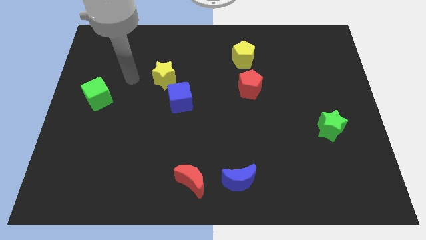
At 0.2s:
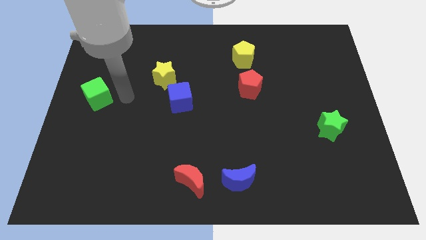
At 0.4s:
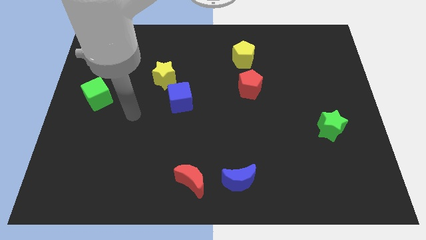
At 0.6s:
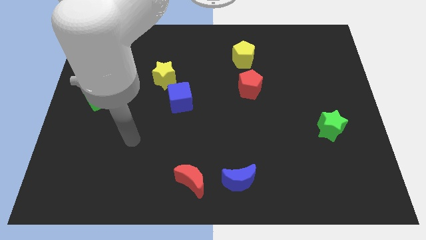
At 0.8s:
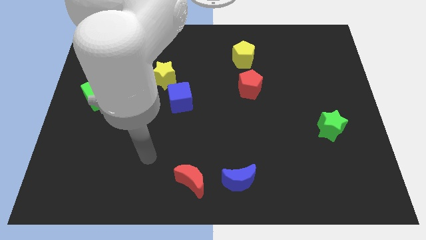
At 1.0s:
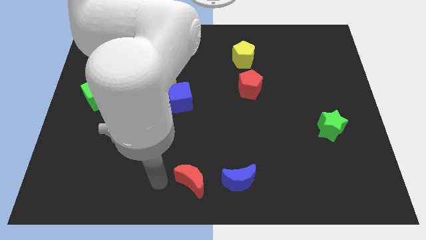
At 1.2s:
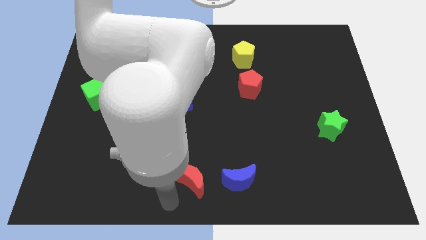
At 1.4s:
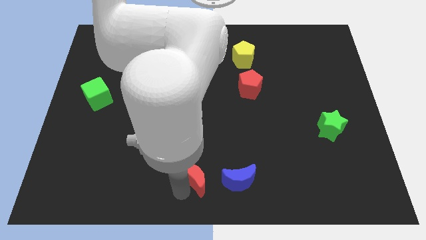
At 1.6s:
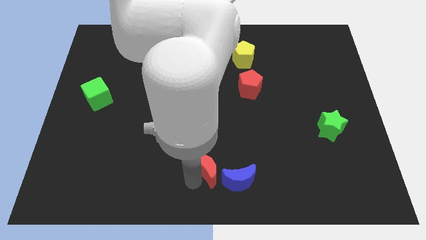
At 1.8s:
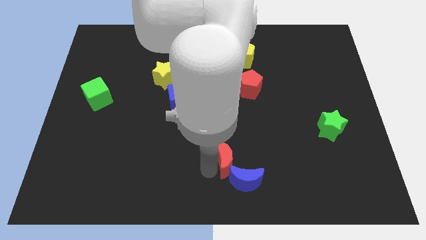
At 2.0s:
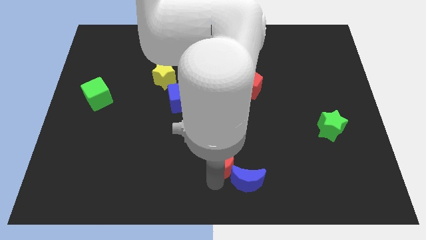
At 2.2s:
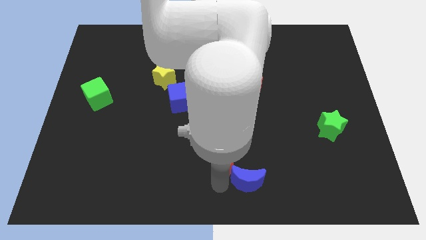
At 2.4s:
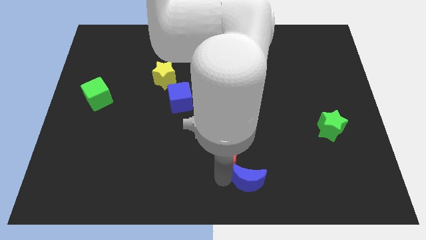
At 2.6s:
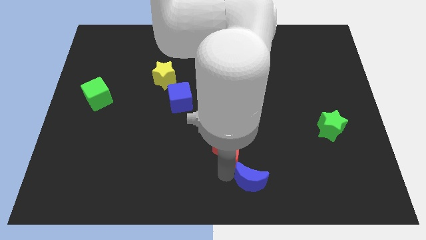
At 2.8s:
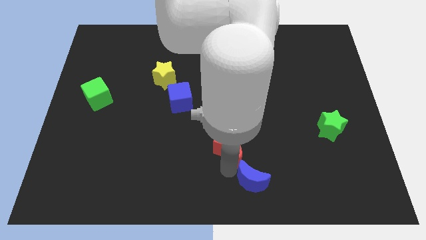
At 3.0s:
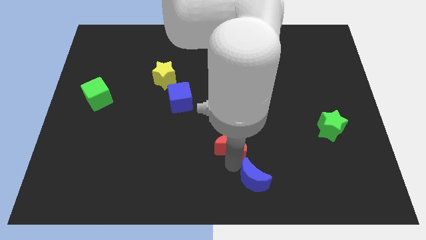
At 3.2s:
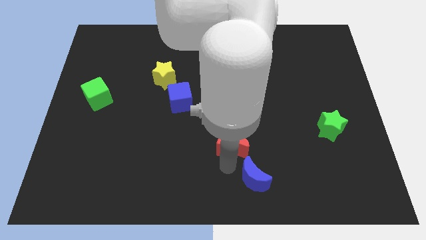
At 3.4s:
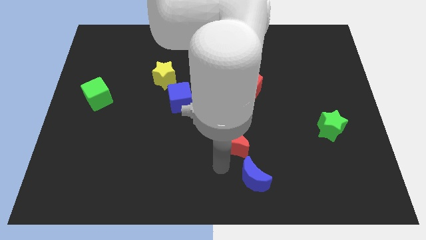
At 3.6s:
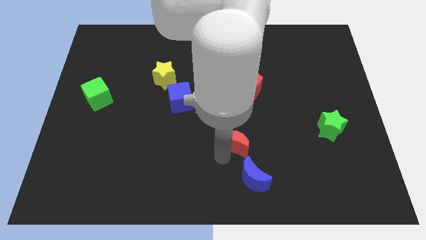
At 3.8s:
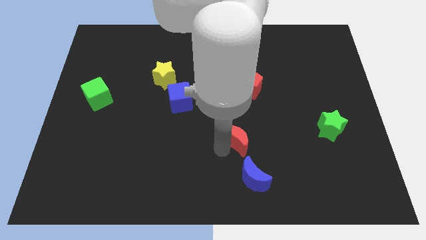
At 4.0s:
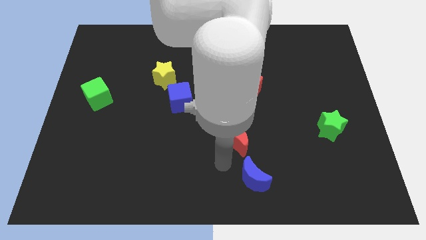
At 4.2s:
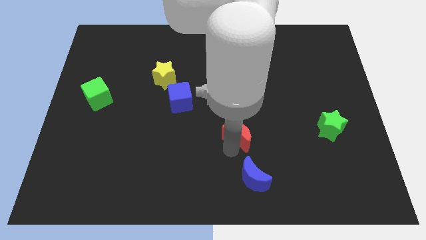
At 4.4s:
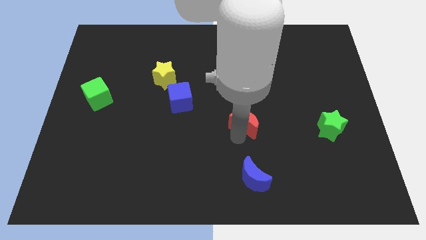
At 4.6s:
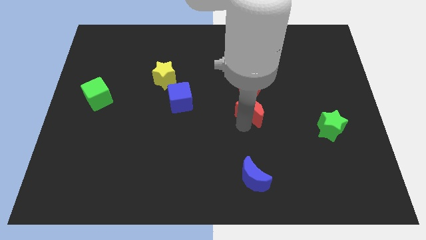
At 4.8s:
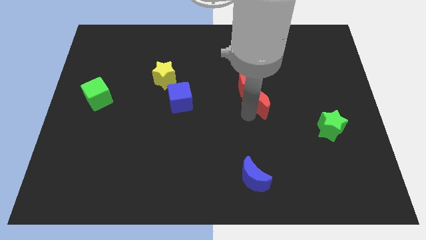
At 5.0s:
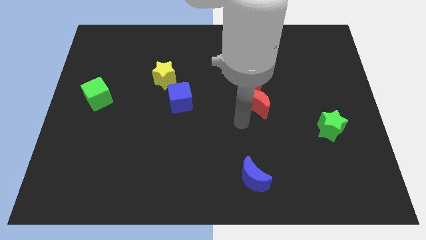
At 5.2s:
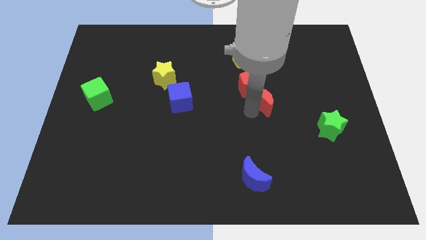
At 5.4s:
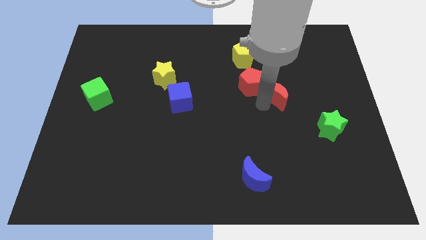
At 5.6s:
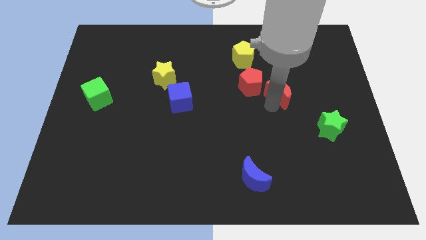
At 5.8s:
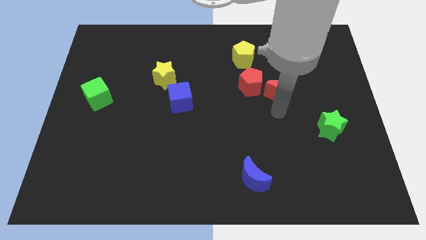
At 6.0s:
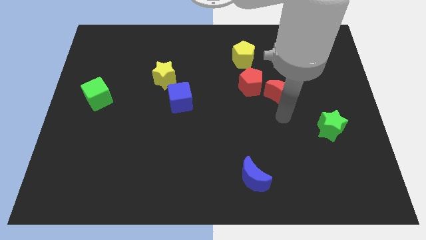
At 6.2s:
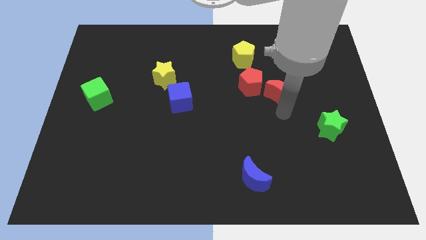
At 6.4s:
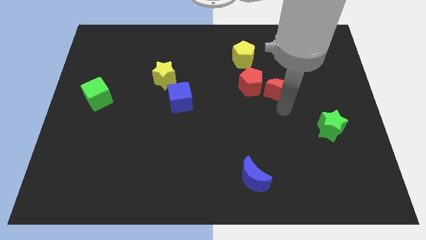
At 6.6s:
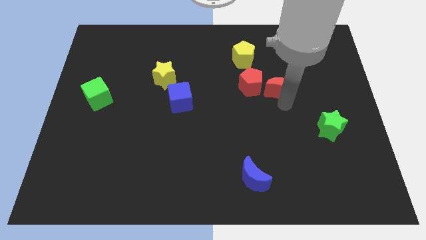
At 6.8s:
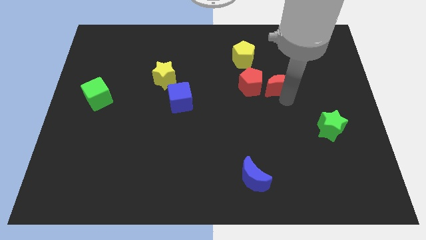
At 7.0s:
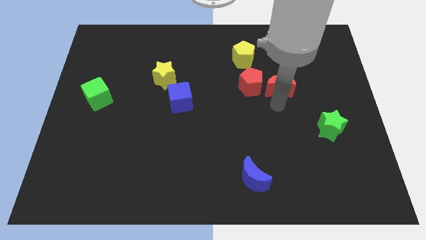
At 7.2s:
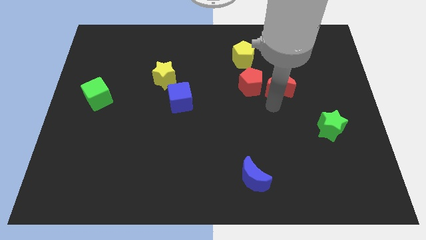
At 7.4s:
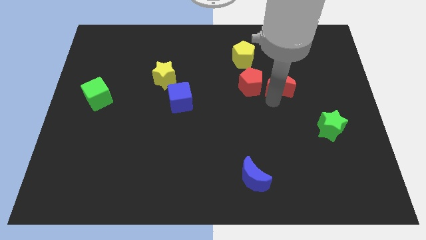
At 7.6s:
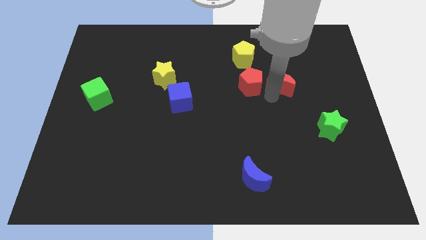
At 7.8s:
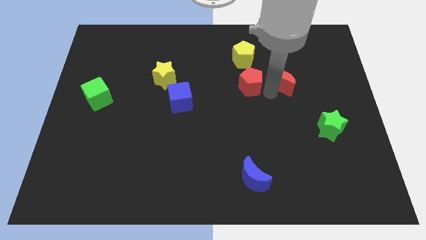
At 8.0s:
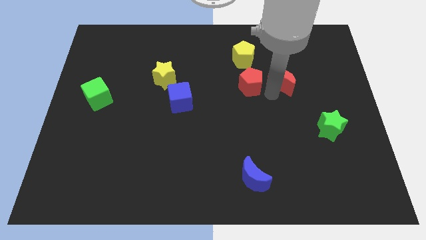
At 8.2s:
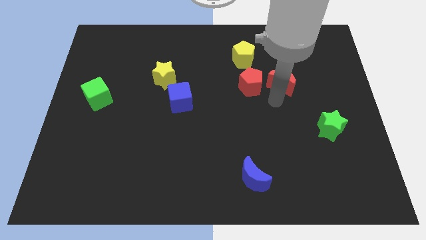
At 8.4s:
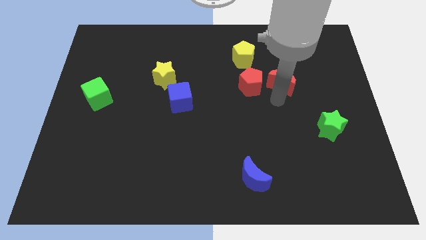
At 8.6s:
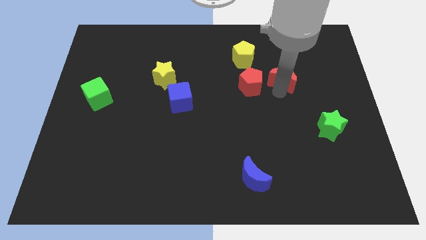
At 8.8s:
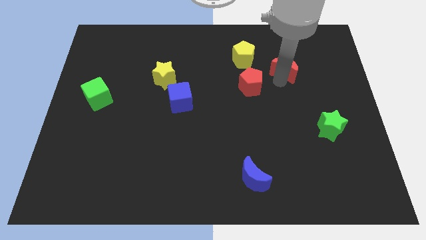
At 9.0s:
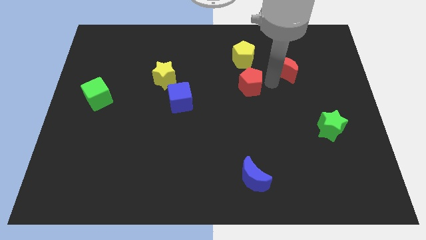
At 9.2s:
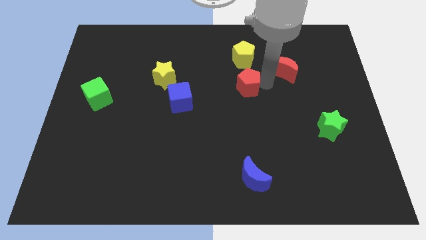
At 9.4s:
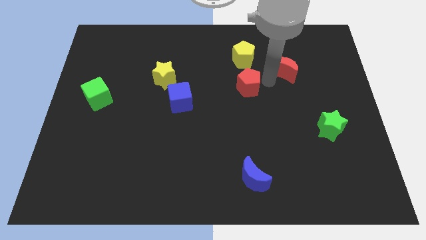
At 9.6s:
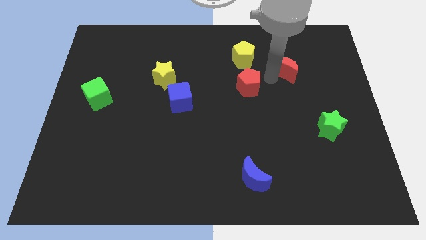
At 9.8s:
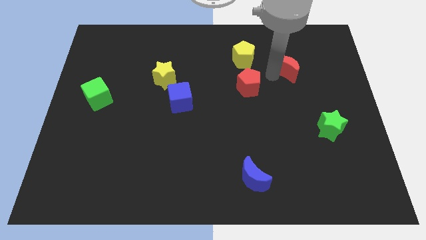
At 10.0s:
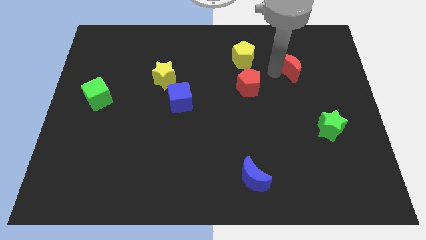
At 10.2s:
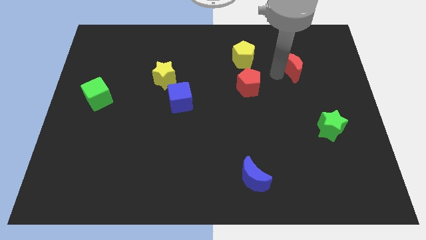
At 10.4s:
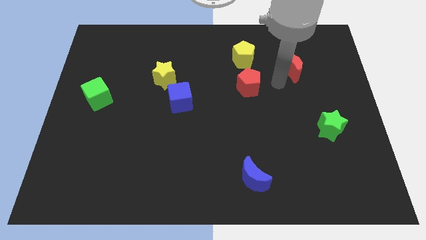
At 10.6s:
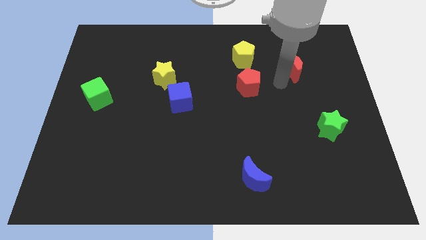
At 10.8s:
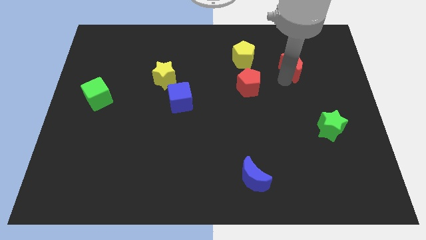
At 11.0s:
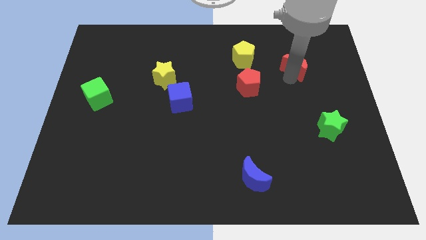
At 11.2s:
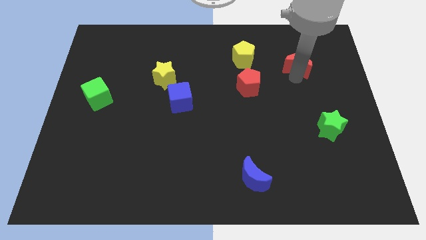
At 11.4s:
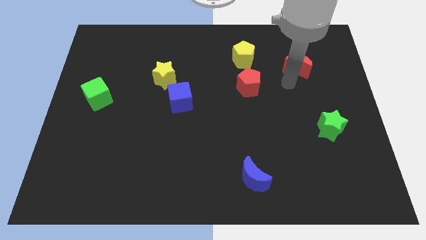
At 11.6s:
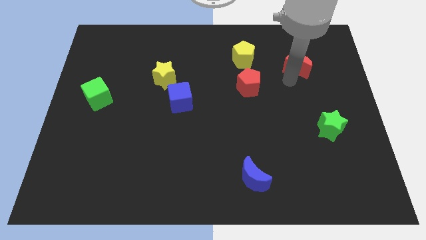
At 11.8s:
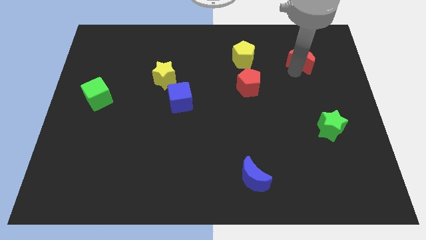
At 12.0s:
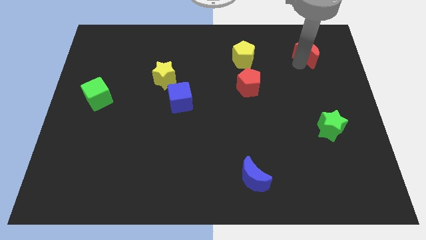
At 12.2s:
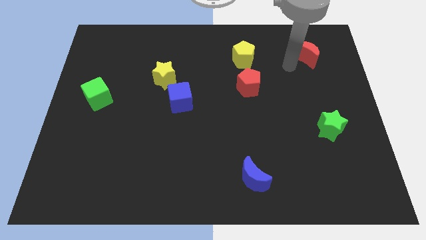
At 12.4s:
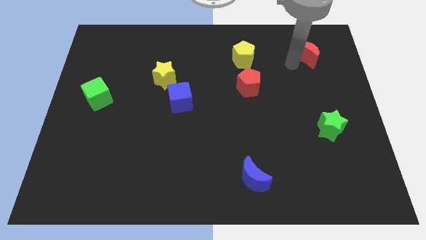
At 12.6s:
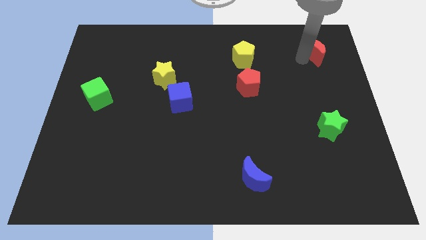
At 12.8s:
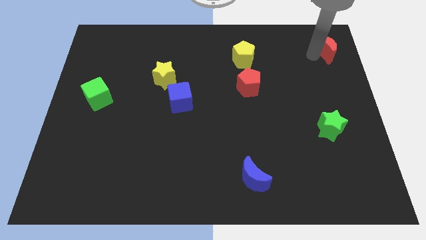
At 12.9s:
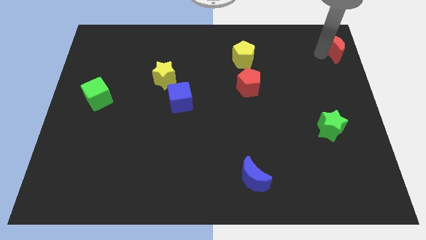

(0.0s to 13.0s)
push the red moon to the top right
